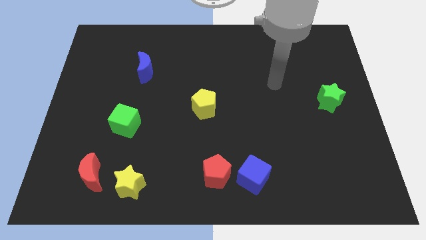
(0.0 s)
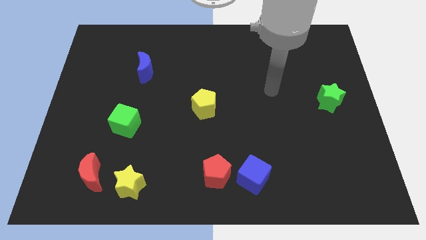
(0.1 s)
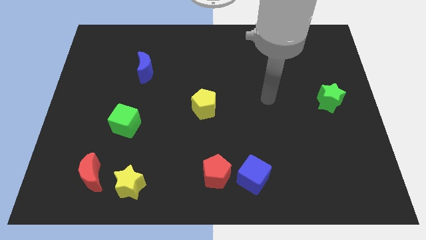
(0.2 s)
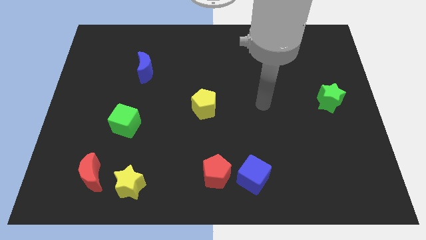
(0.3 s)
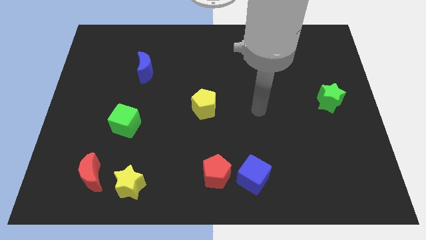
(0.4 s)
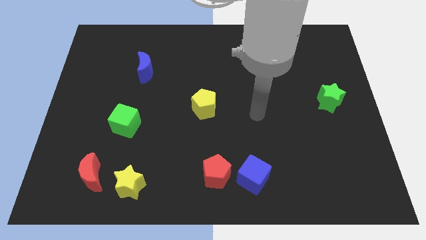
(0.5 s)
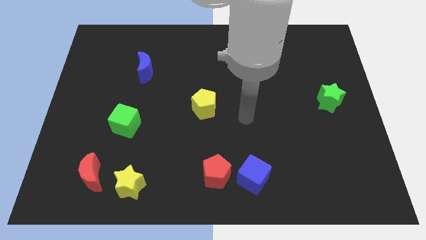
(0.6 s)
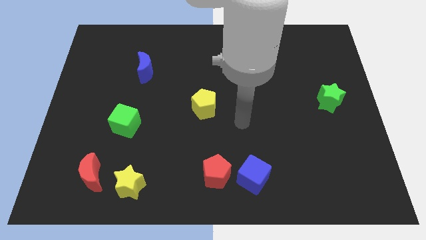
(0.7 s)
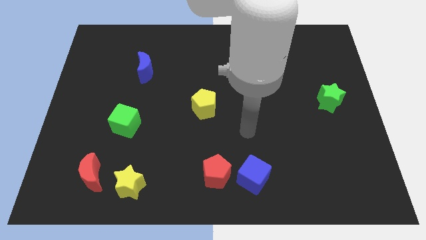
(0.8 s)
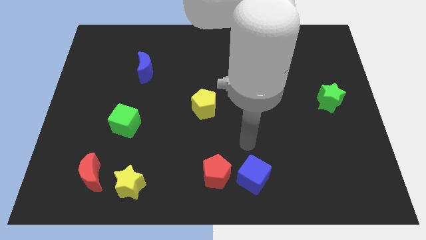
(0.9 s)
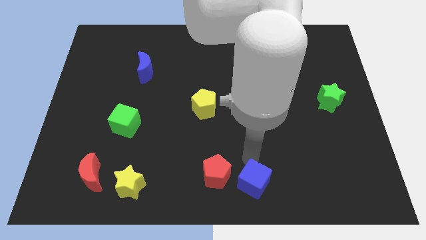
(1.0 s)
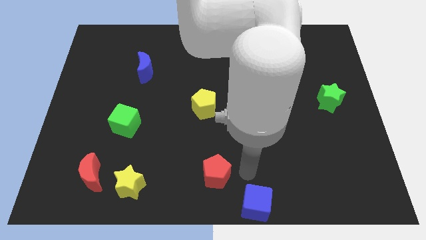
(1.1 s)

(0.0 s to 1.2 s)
separate the red pentagon from the blue cube

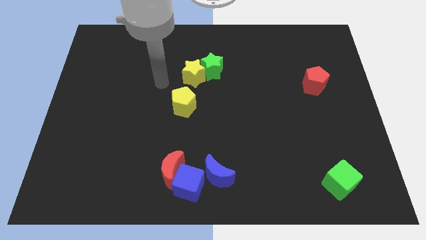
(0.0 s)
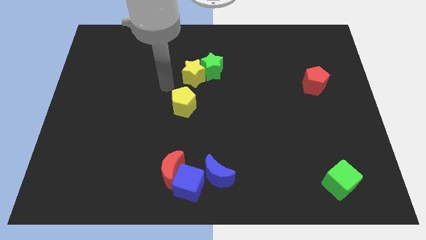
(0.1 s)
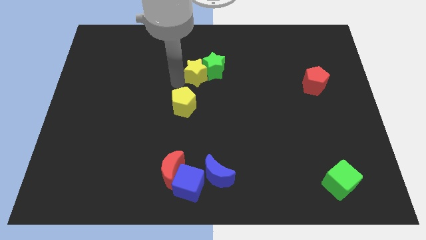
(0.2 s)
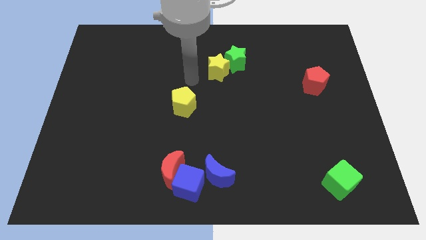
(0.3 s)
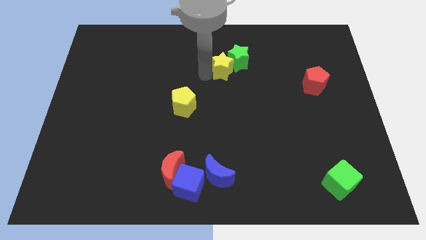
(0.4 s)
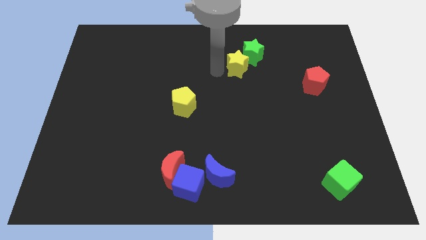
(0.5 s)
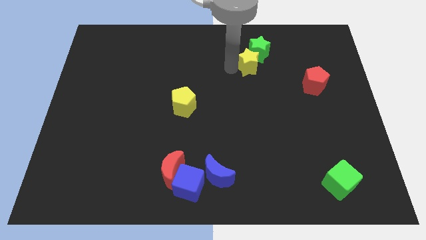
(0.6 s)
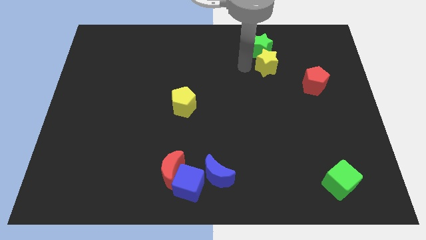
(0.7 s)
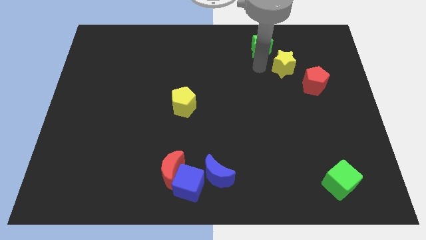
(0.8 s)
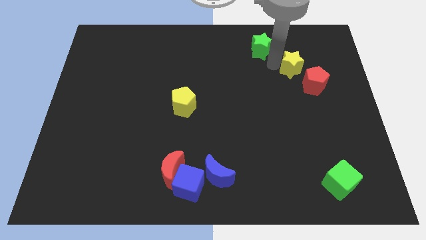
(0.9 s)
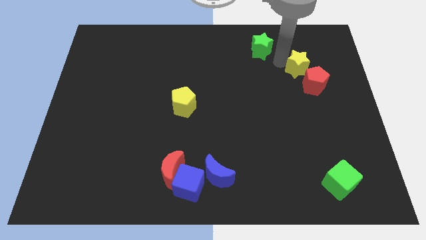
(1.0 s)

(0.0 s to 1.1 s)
move the green star away from the yellow star

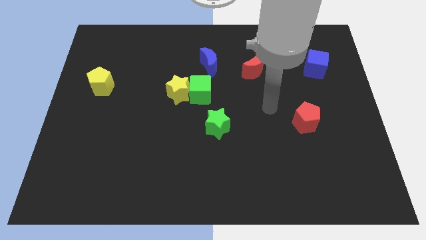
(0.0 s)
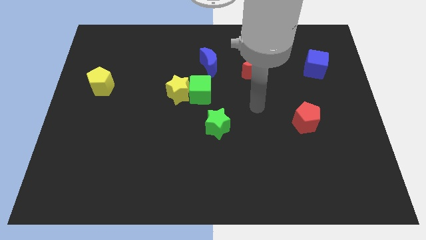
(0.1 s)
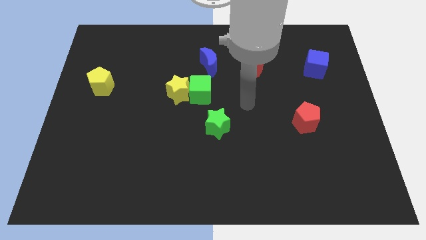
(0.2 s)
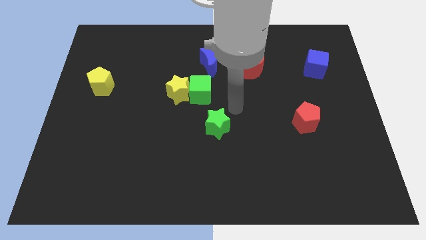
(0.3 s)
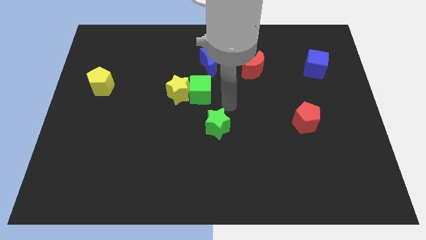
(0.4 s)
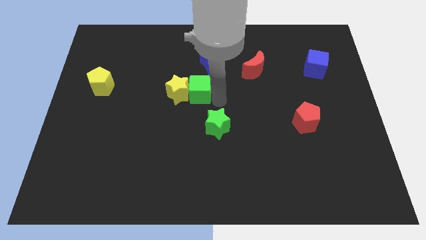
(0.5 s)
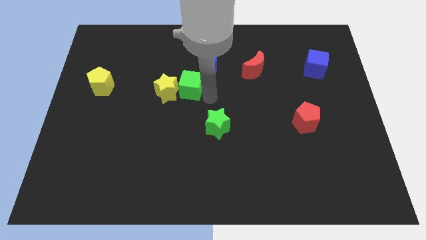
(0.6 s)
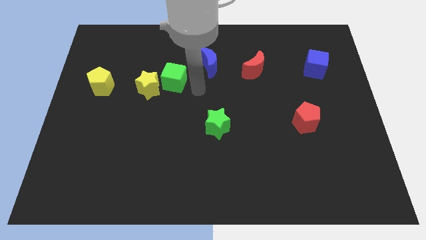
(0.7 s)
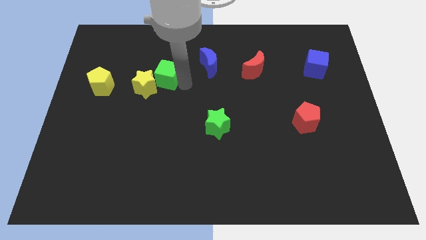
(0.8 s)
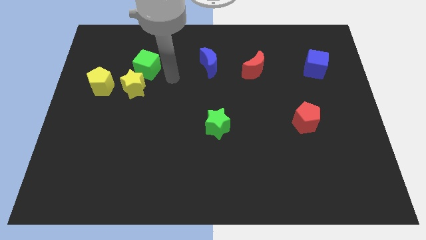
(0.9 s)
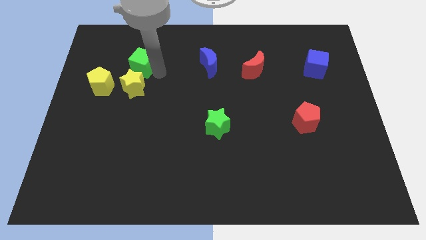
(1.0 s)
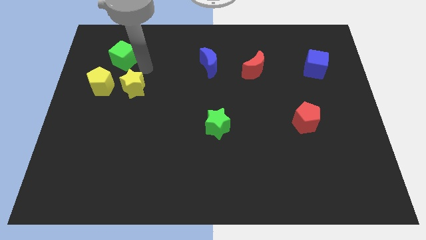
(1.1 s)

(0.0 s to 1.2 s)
move the yellow star away from the green cube

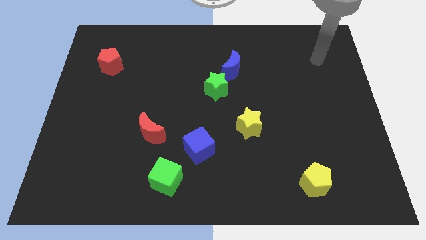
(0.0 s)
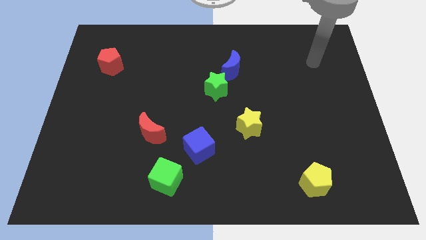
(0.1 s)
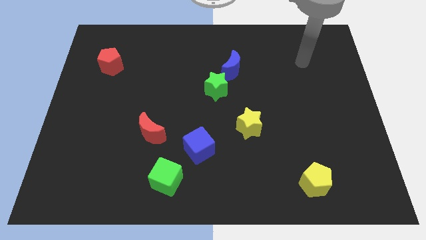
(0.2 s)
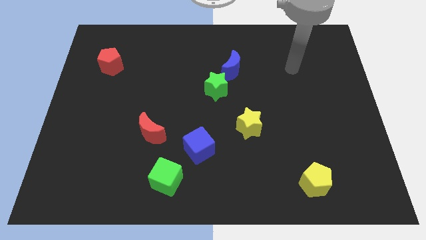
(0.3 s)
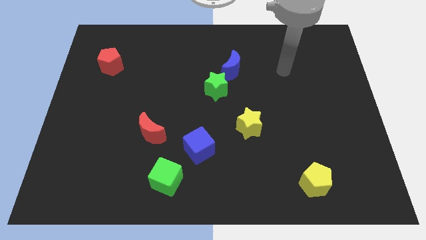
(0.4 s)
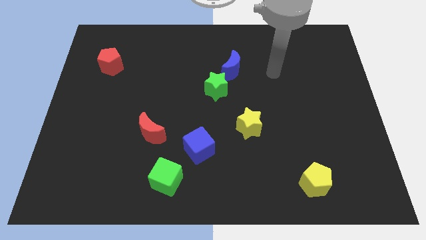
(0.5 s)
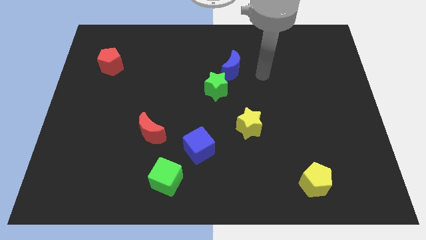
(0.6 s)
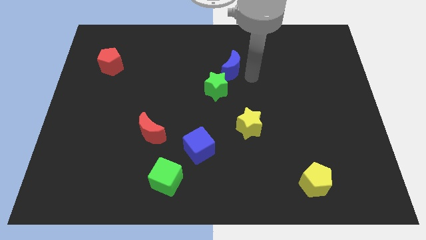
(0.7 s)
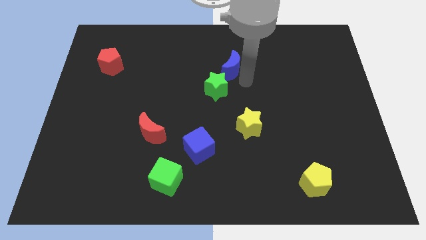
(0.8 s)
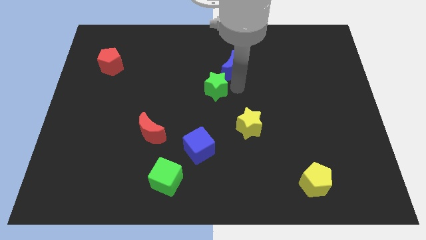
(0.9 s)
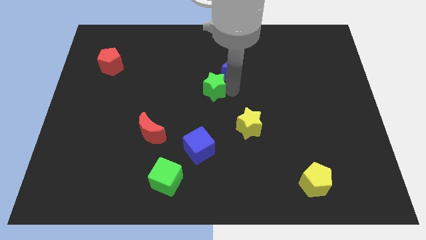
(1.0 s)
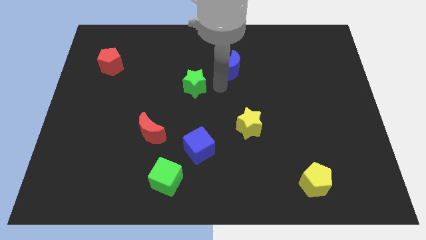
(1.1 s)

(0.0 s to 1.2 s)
separate the blue moon from the green star

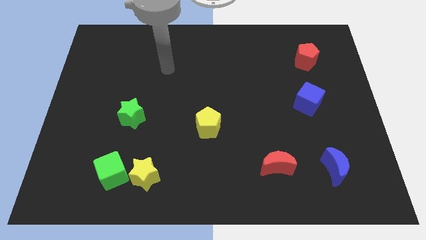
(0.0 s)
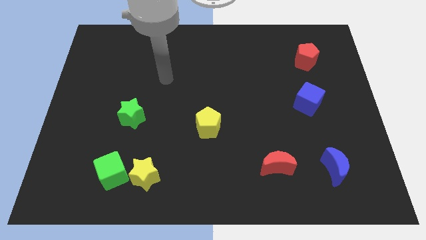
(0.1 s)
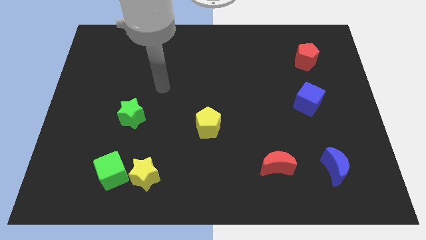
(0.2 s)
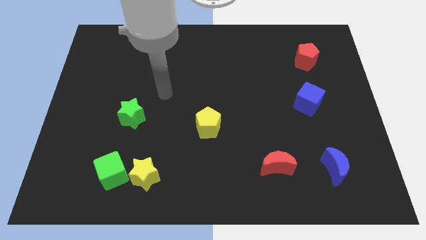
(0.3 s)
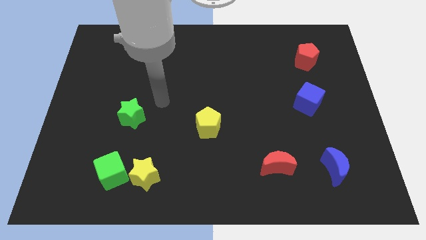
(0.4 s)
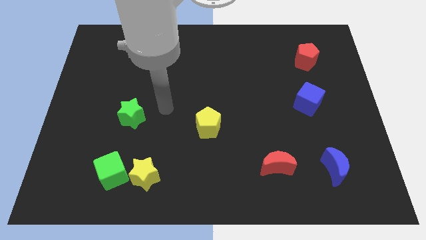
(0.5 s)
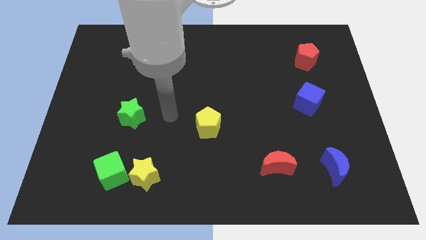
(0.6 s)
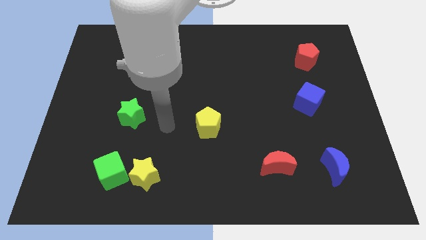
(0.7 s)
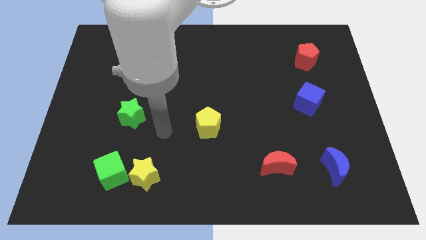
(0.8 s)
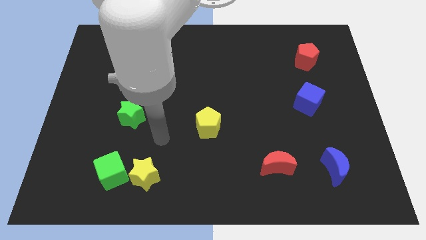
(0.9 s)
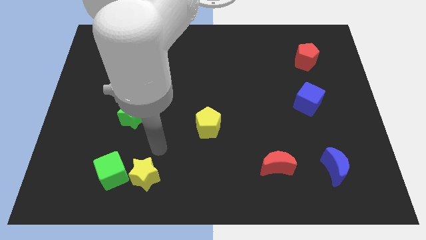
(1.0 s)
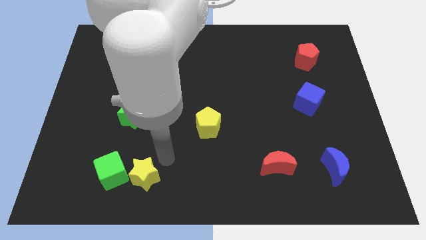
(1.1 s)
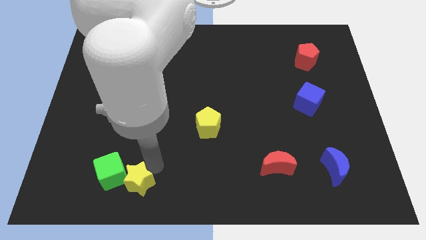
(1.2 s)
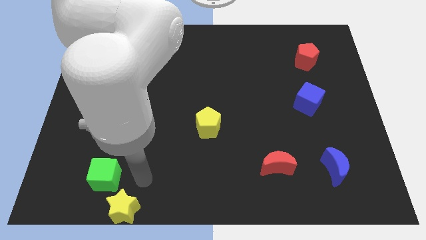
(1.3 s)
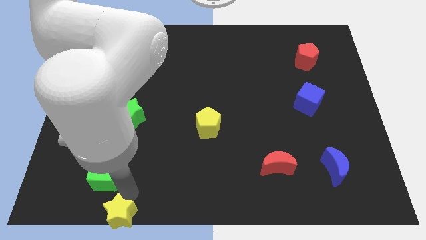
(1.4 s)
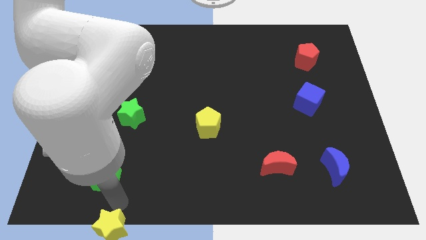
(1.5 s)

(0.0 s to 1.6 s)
pull the green cube apart from the yellow star

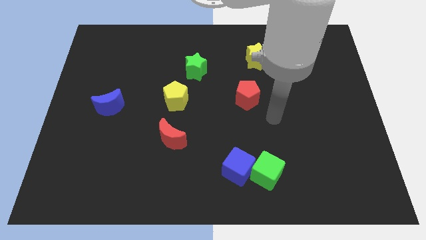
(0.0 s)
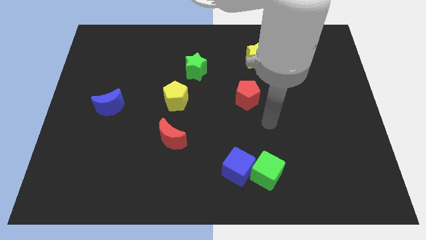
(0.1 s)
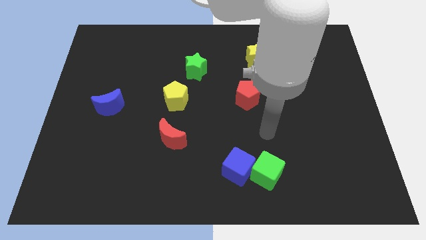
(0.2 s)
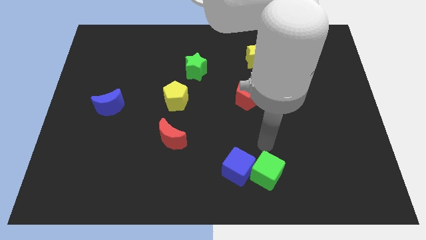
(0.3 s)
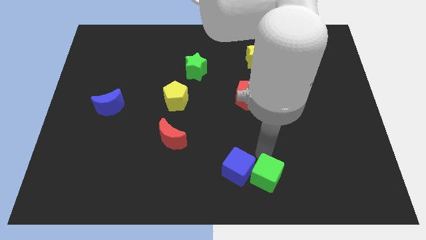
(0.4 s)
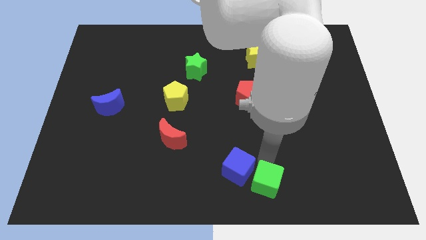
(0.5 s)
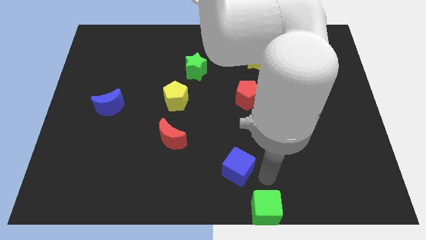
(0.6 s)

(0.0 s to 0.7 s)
separate the blue cube from the green cube

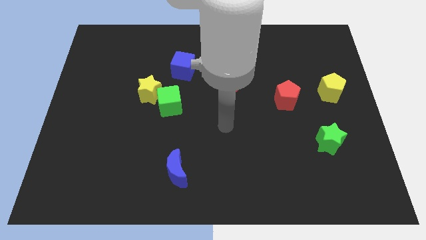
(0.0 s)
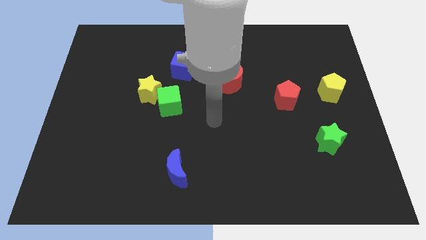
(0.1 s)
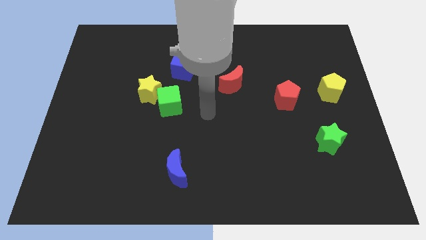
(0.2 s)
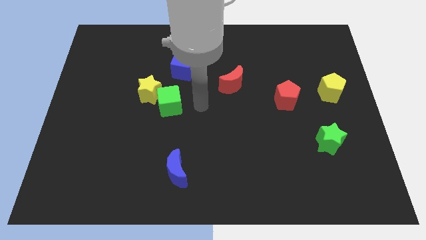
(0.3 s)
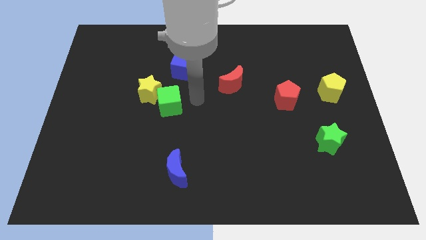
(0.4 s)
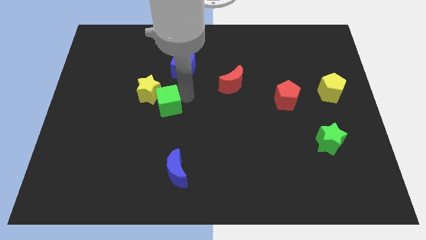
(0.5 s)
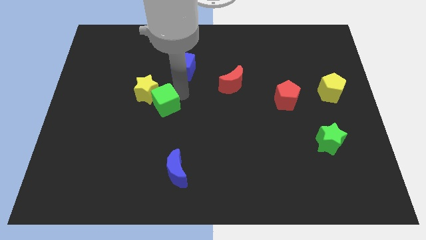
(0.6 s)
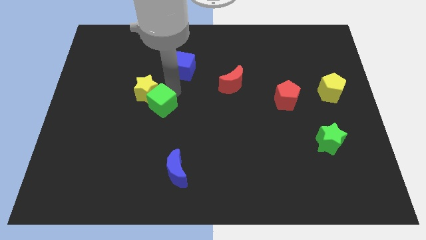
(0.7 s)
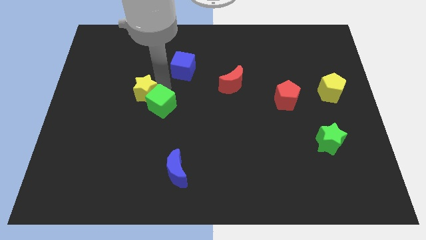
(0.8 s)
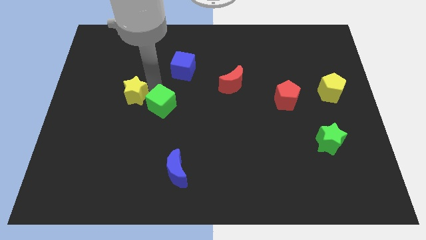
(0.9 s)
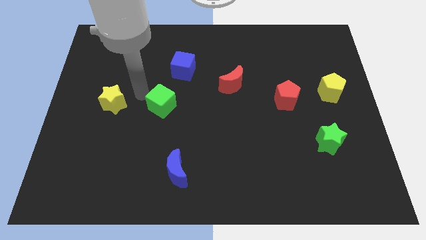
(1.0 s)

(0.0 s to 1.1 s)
separate the green cube from the yellow star

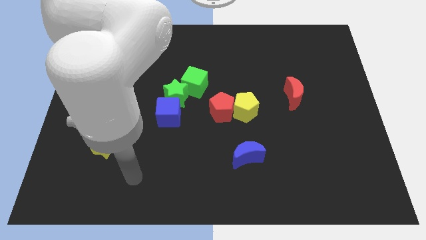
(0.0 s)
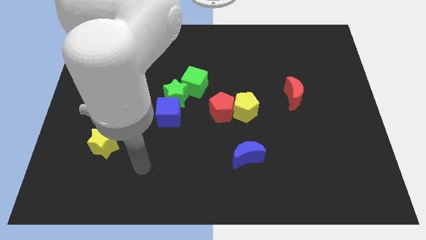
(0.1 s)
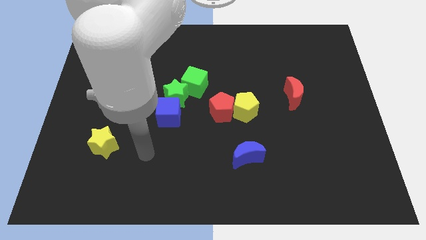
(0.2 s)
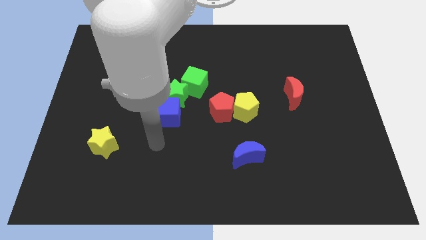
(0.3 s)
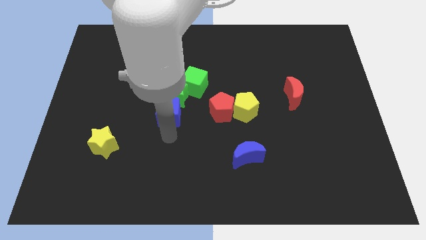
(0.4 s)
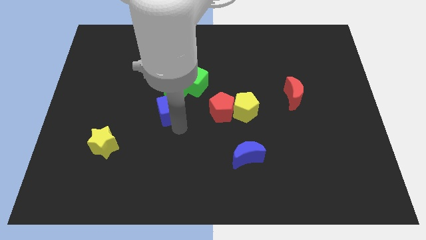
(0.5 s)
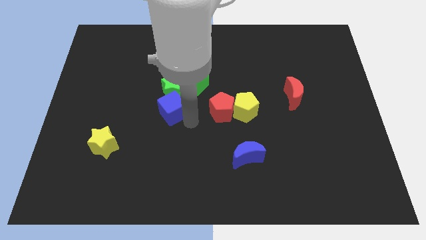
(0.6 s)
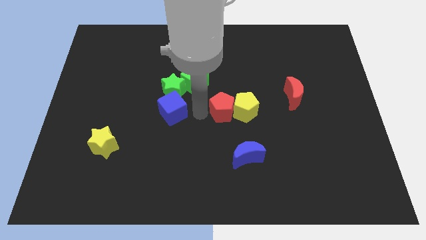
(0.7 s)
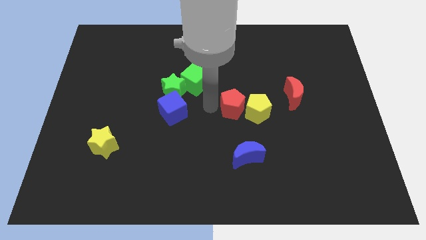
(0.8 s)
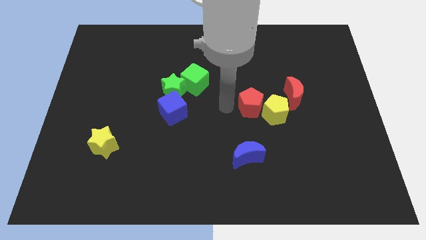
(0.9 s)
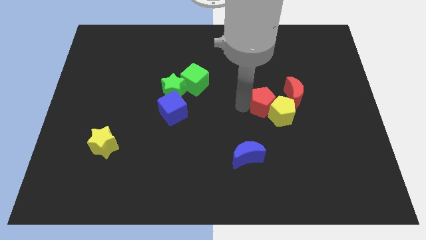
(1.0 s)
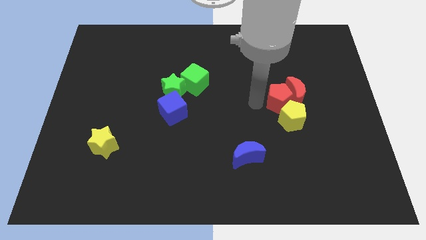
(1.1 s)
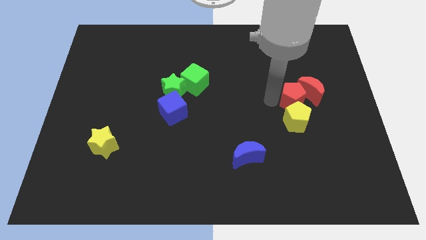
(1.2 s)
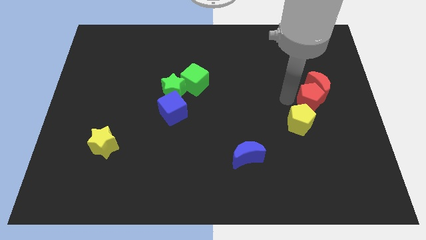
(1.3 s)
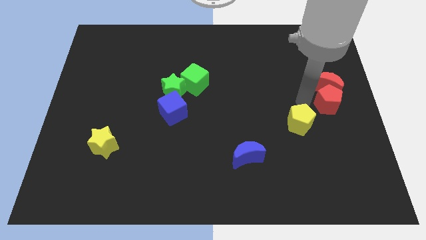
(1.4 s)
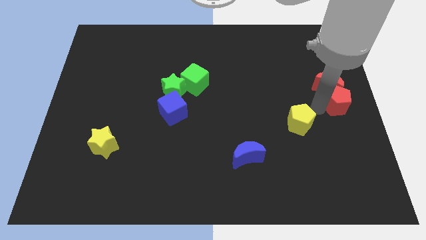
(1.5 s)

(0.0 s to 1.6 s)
pull the yellow pentagon apart from the red pentagon
